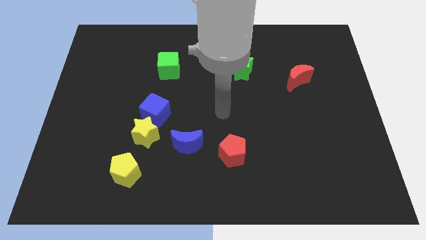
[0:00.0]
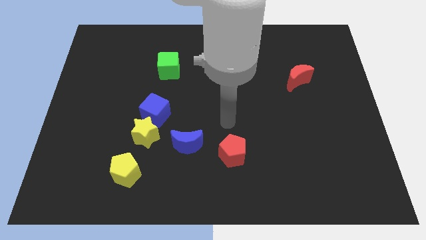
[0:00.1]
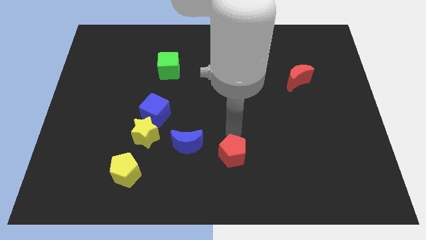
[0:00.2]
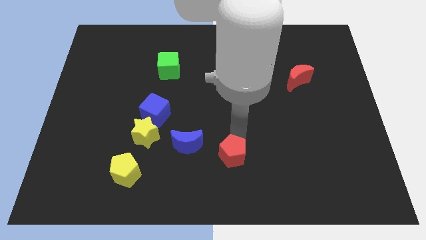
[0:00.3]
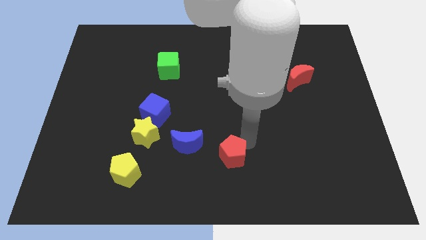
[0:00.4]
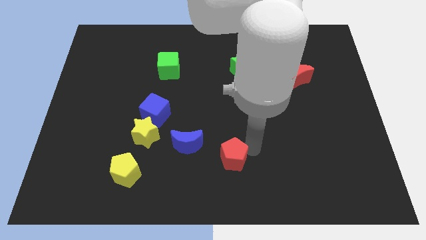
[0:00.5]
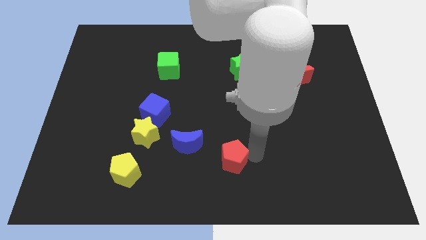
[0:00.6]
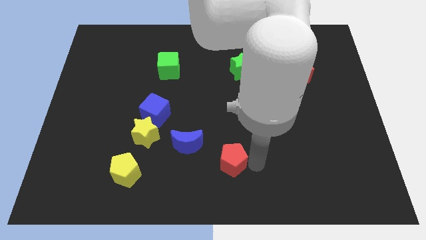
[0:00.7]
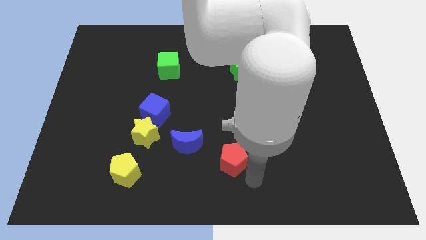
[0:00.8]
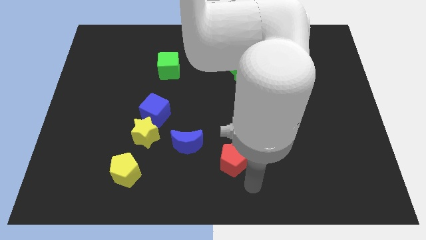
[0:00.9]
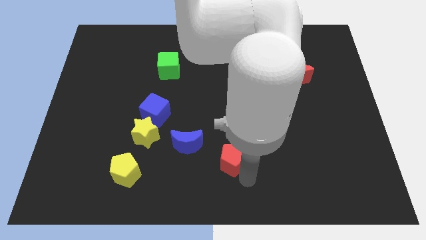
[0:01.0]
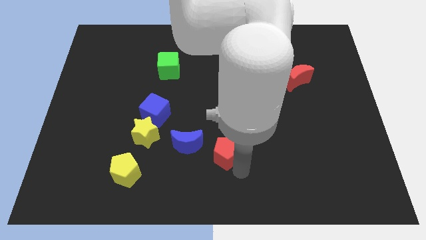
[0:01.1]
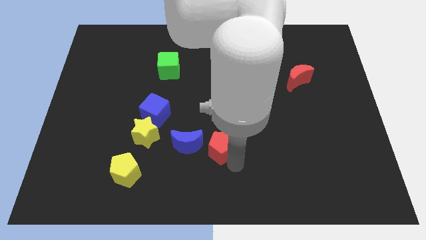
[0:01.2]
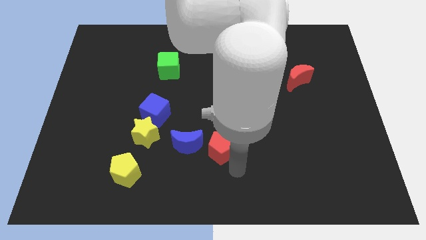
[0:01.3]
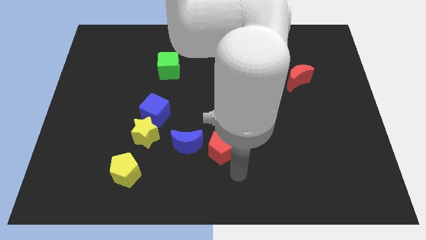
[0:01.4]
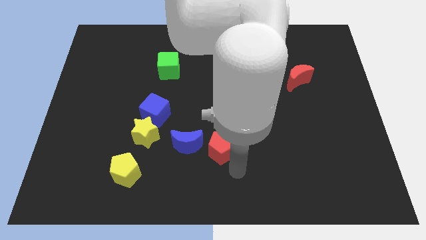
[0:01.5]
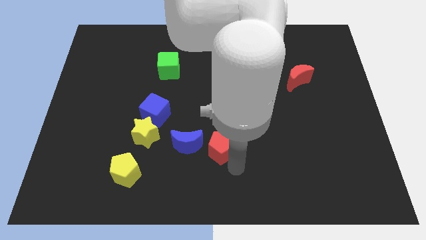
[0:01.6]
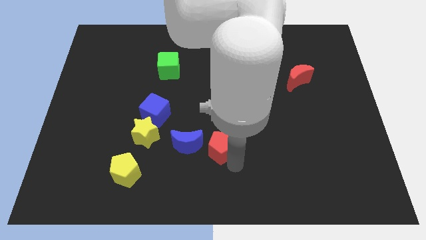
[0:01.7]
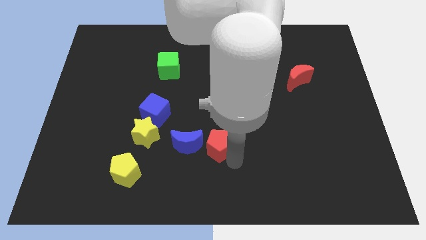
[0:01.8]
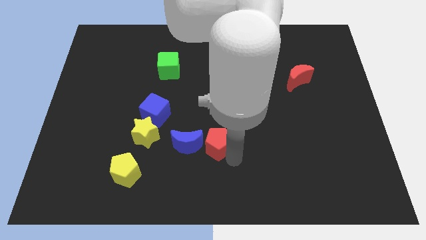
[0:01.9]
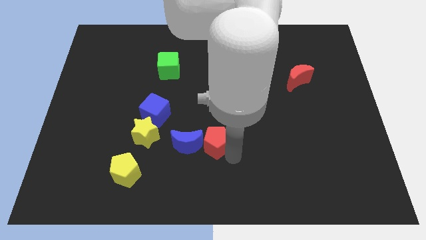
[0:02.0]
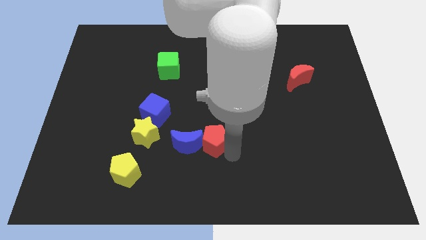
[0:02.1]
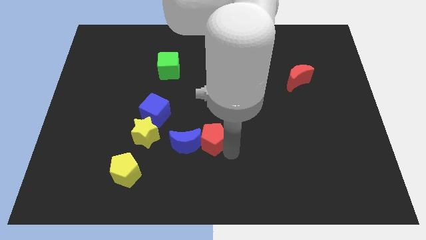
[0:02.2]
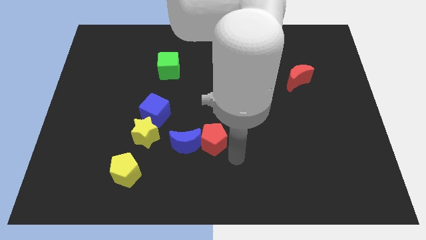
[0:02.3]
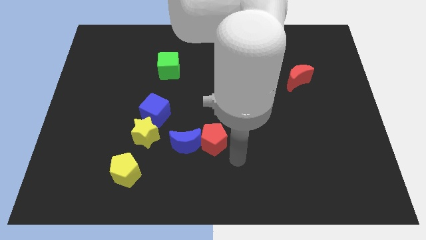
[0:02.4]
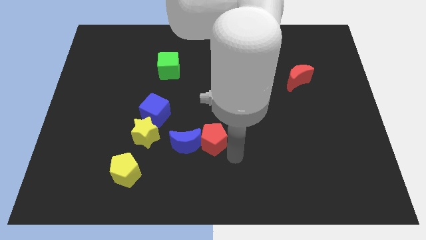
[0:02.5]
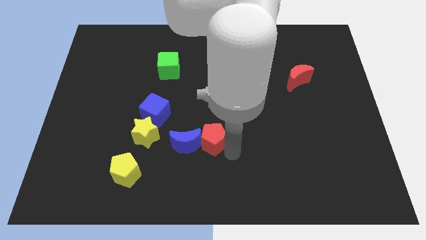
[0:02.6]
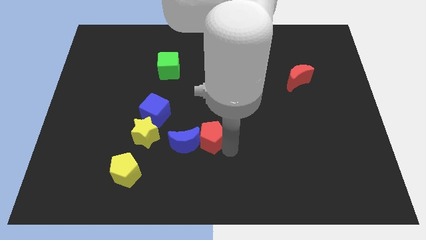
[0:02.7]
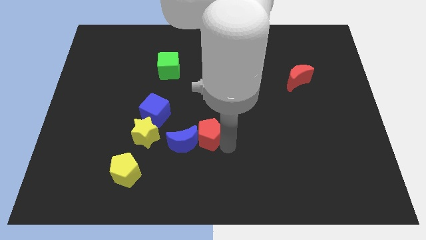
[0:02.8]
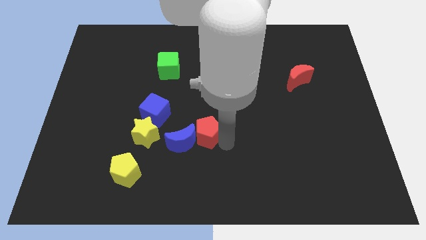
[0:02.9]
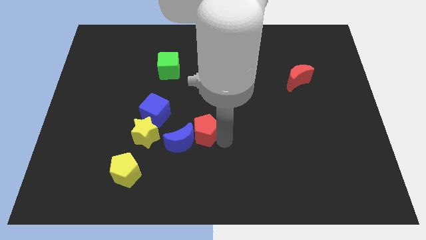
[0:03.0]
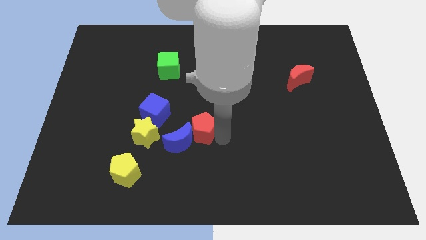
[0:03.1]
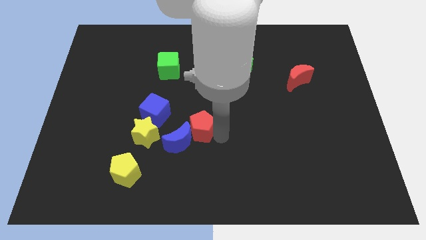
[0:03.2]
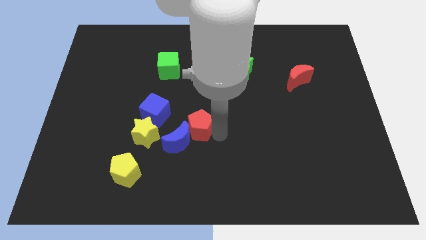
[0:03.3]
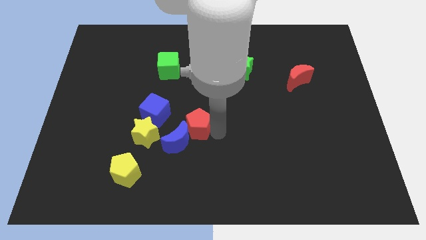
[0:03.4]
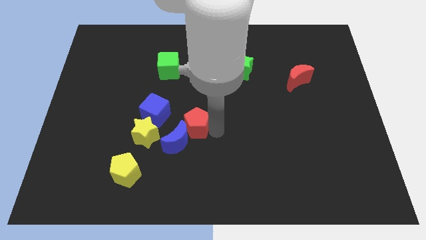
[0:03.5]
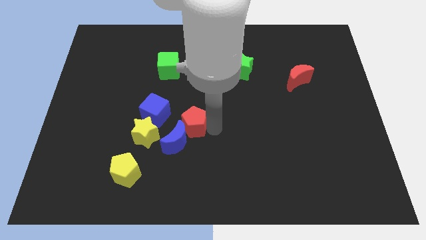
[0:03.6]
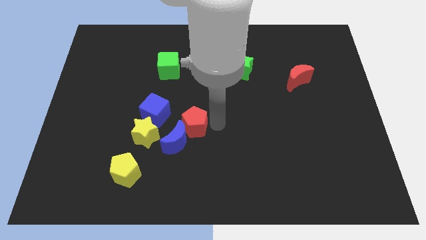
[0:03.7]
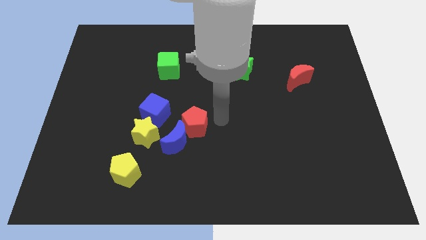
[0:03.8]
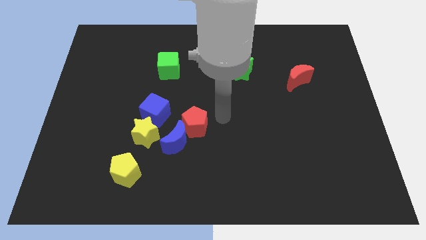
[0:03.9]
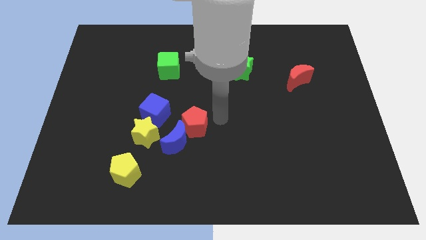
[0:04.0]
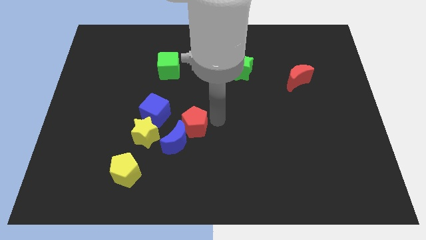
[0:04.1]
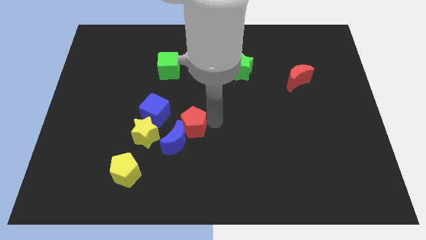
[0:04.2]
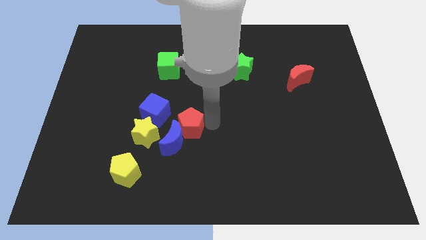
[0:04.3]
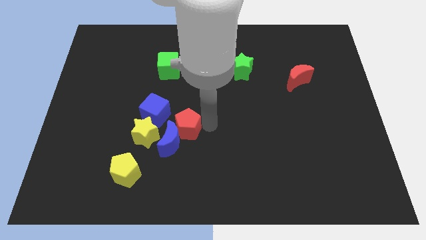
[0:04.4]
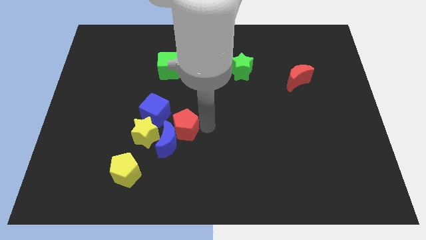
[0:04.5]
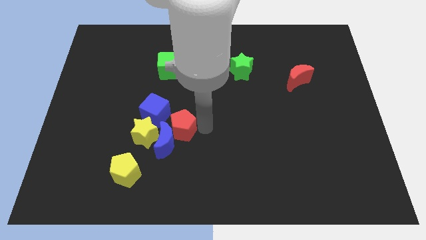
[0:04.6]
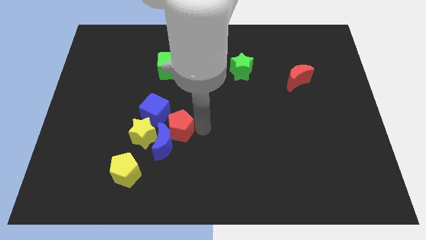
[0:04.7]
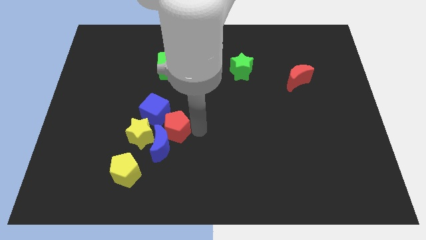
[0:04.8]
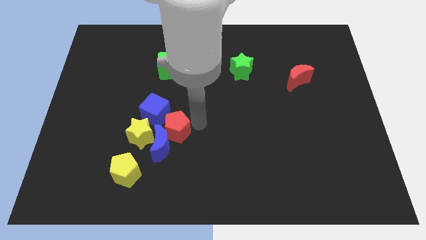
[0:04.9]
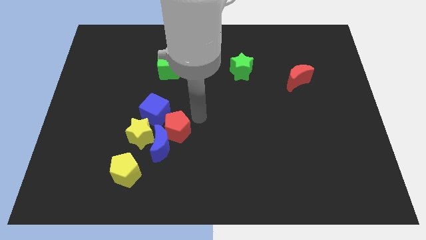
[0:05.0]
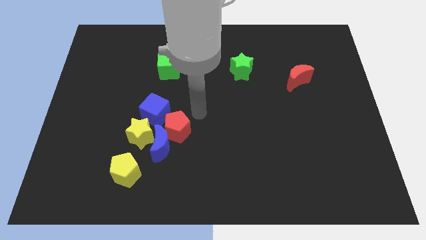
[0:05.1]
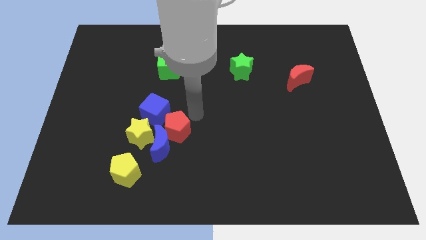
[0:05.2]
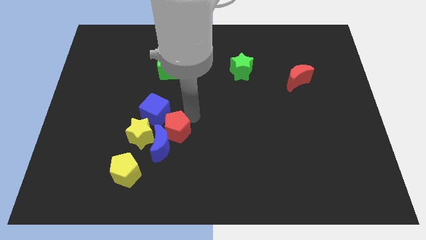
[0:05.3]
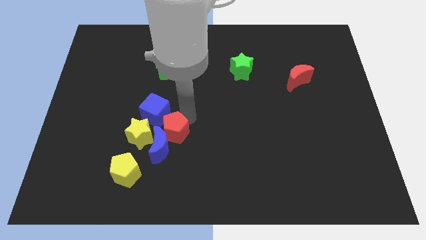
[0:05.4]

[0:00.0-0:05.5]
move the red pentagon to the bottom side of the blue cube

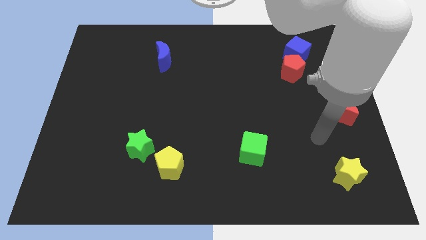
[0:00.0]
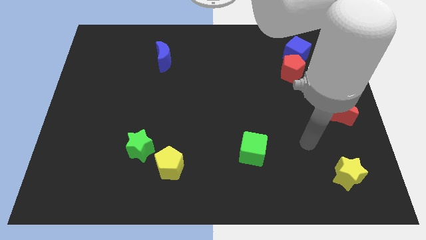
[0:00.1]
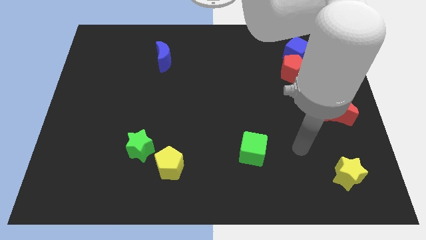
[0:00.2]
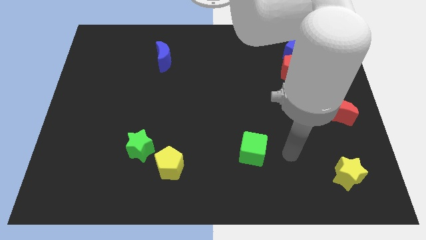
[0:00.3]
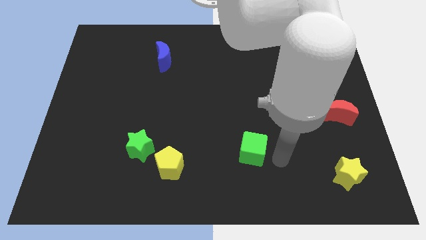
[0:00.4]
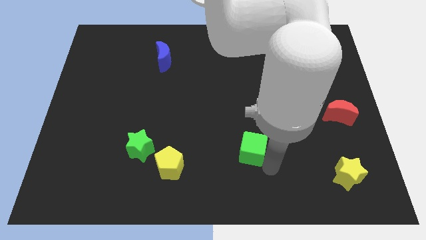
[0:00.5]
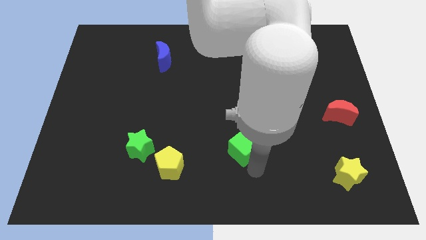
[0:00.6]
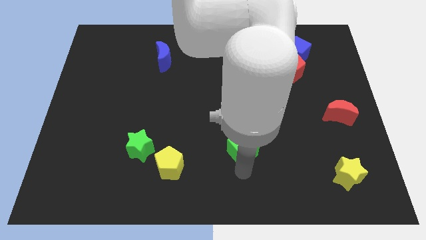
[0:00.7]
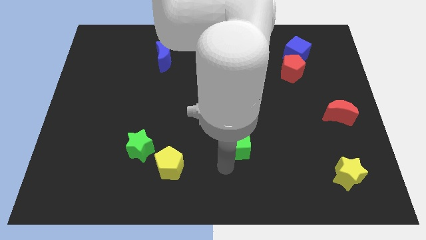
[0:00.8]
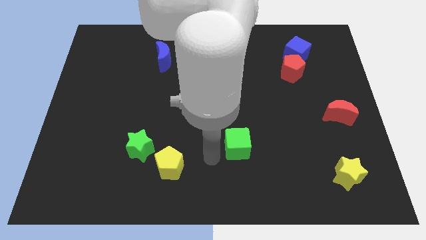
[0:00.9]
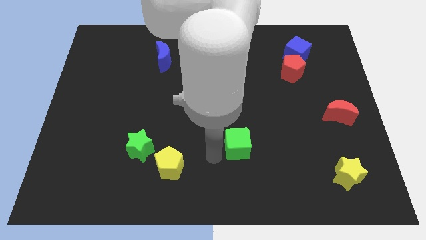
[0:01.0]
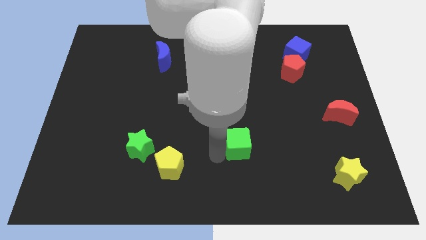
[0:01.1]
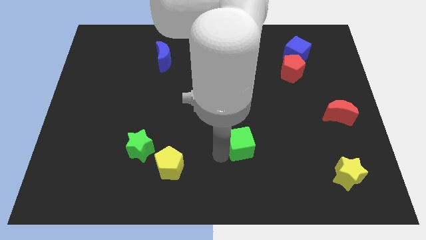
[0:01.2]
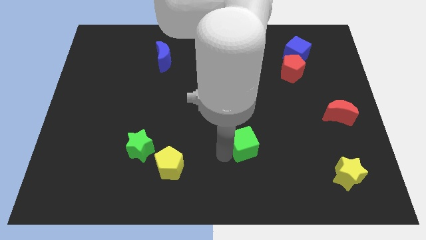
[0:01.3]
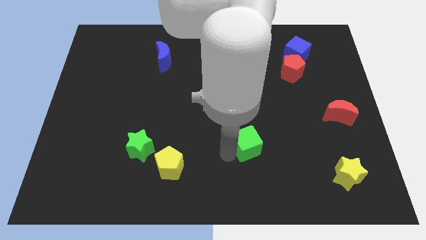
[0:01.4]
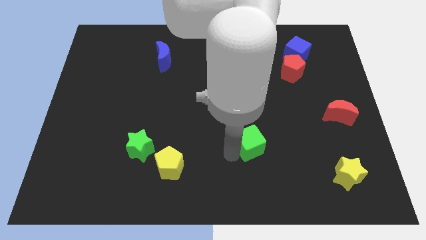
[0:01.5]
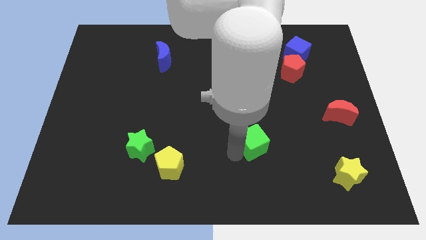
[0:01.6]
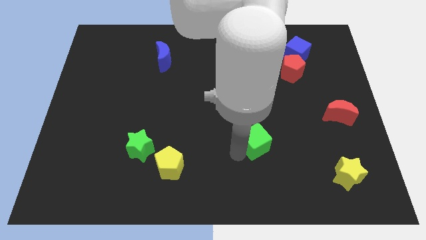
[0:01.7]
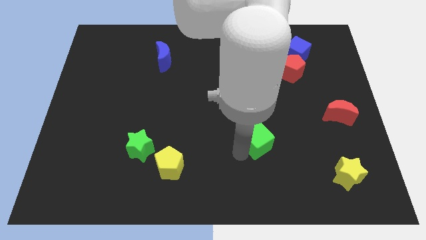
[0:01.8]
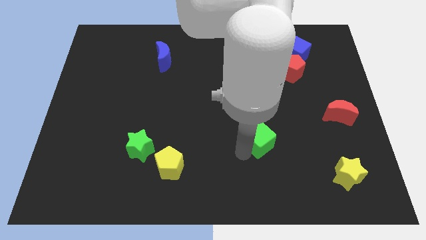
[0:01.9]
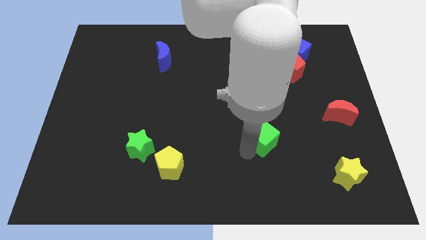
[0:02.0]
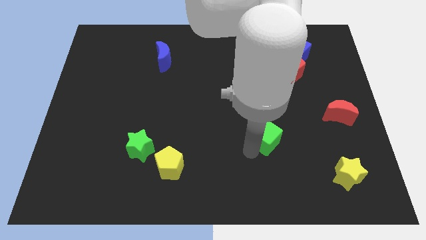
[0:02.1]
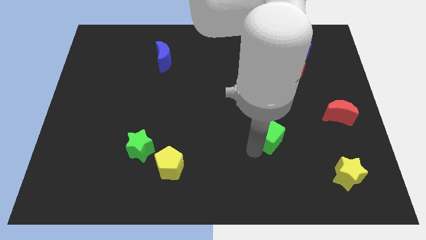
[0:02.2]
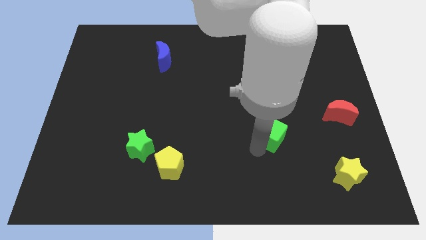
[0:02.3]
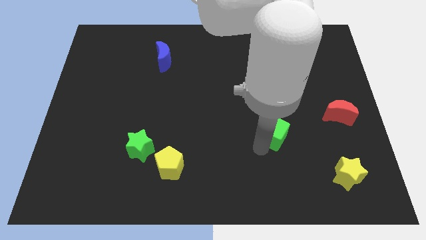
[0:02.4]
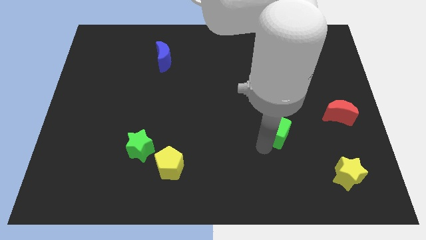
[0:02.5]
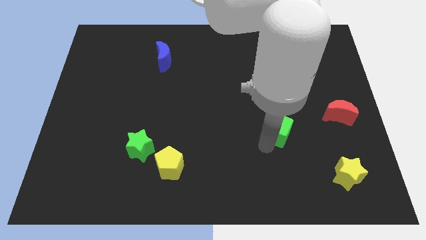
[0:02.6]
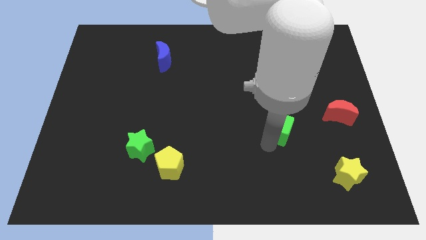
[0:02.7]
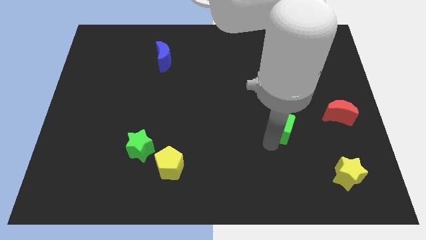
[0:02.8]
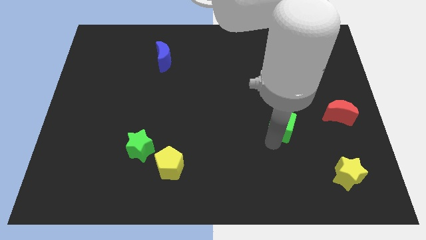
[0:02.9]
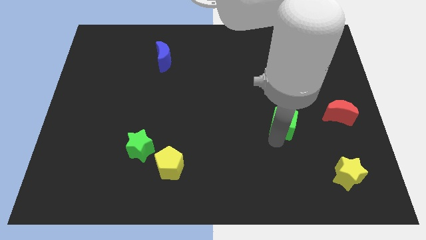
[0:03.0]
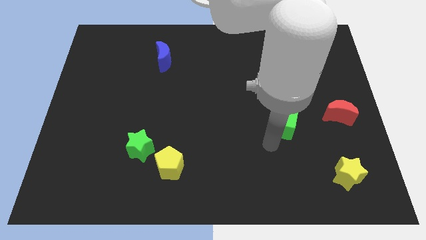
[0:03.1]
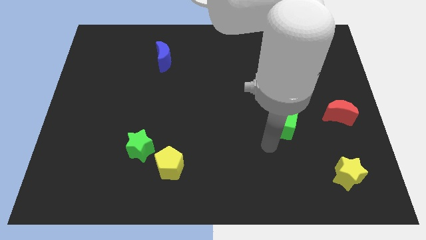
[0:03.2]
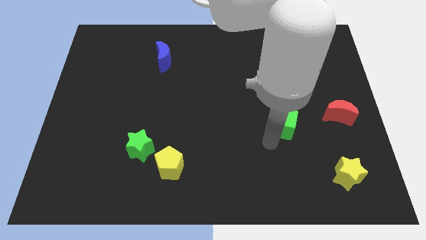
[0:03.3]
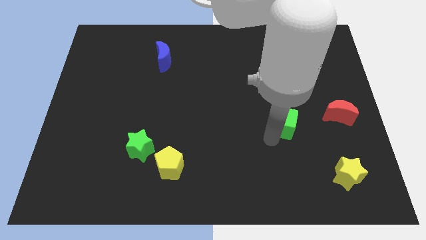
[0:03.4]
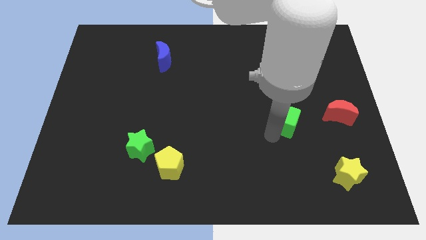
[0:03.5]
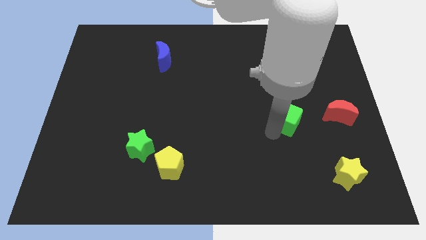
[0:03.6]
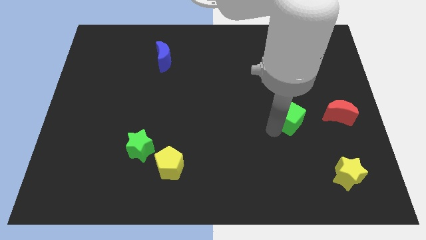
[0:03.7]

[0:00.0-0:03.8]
slide the green cube to the bottom of the red pentagon
